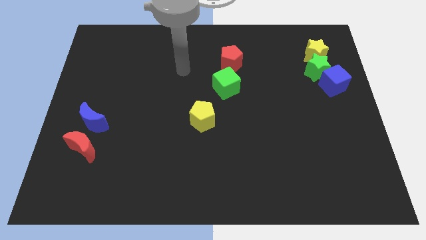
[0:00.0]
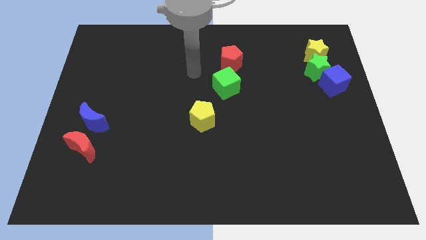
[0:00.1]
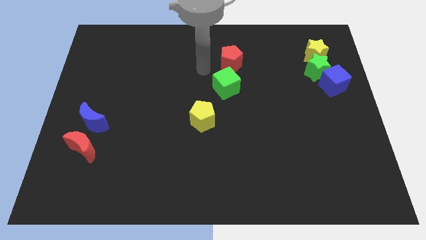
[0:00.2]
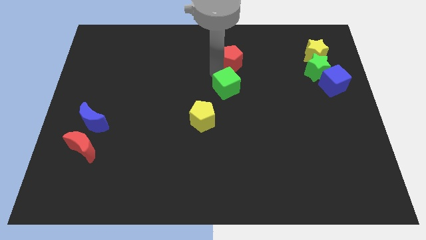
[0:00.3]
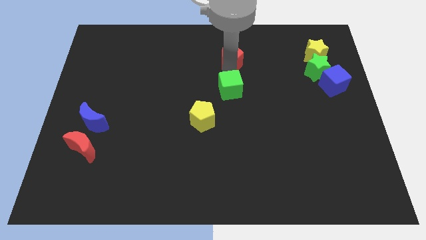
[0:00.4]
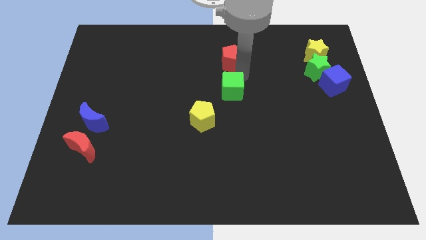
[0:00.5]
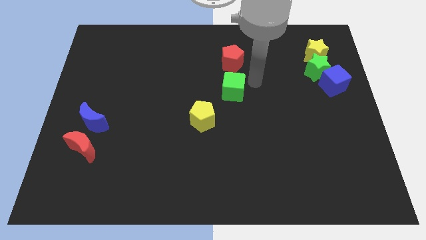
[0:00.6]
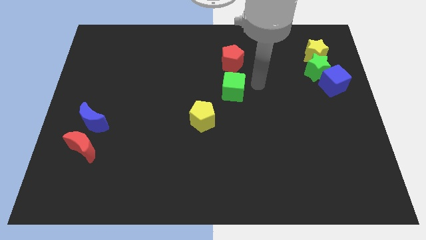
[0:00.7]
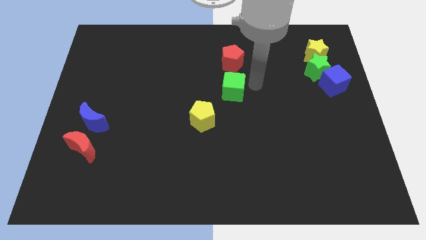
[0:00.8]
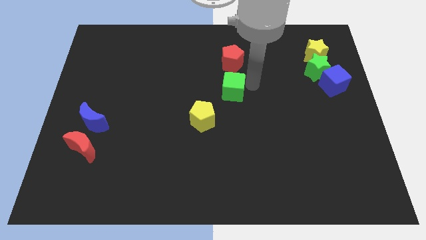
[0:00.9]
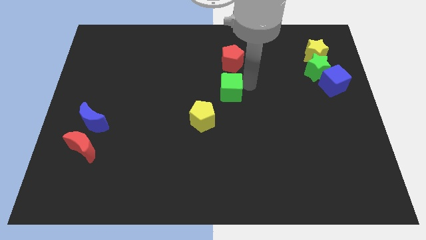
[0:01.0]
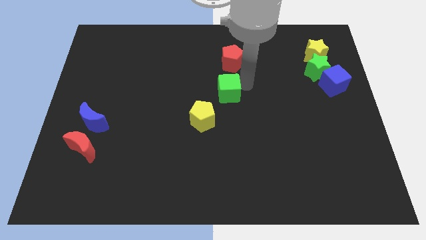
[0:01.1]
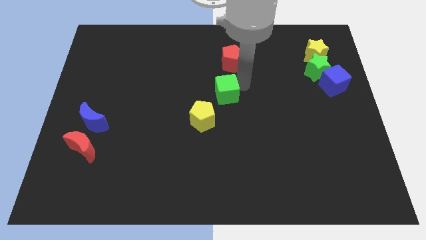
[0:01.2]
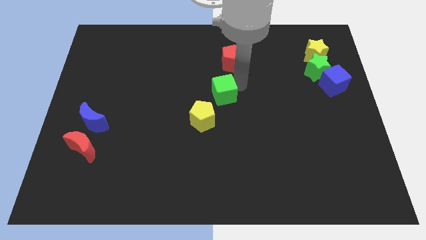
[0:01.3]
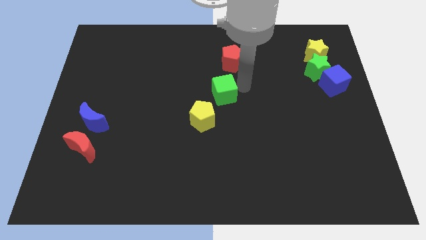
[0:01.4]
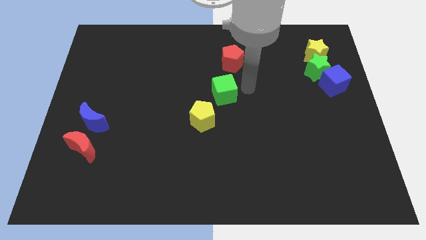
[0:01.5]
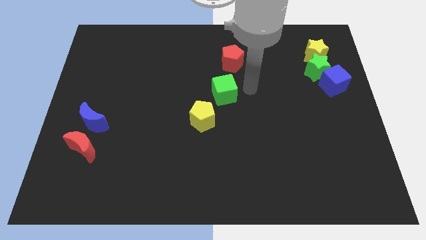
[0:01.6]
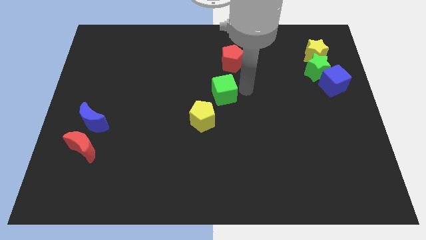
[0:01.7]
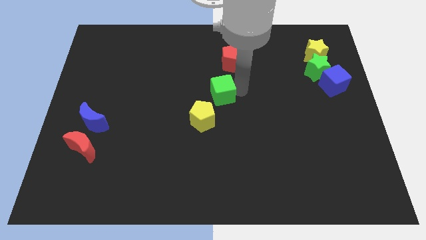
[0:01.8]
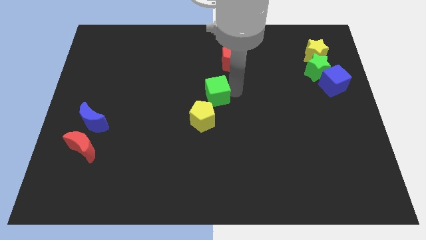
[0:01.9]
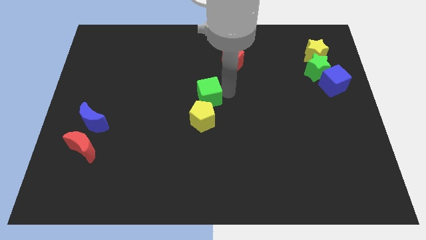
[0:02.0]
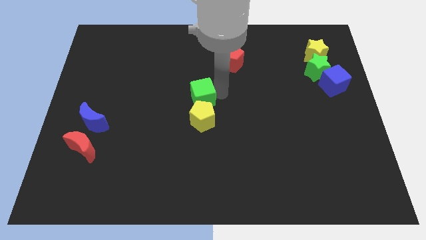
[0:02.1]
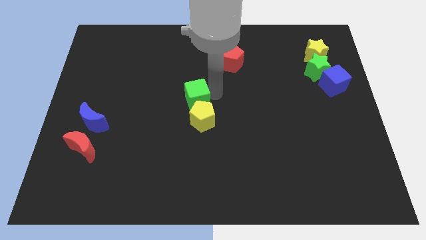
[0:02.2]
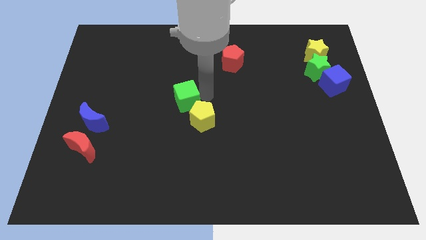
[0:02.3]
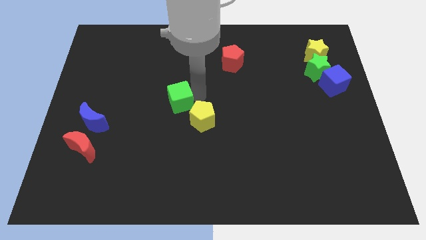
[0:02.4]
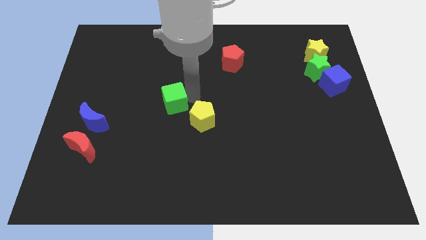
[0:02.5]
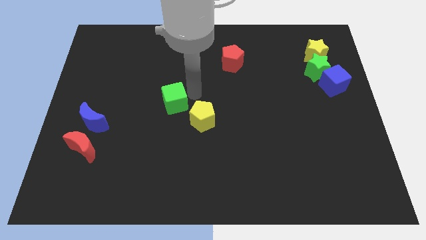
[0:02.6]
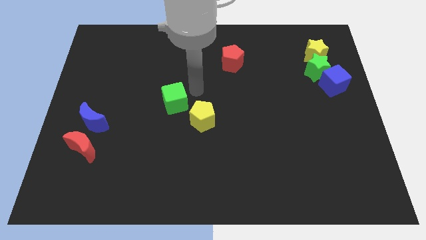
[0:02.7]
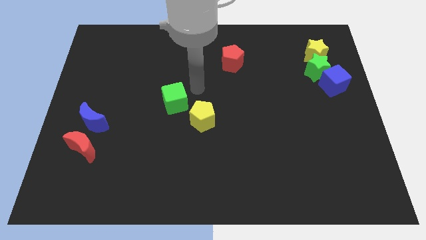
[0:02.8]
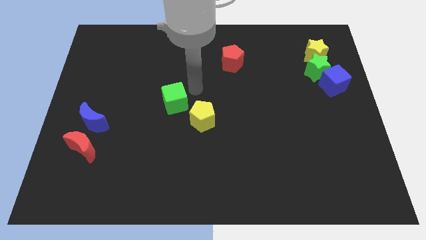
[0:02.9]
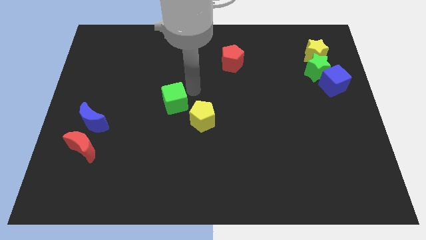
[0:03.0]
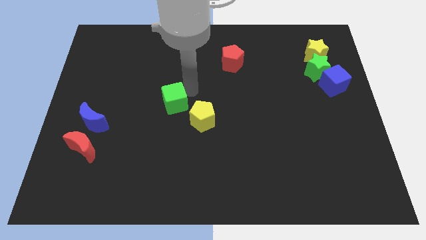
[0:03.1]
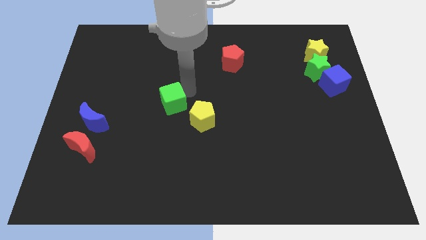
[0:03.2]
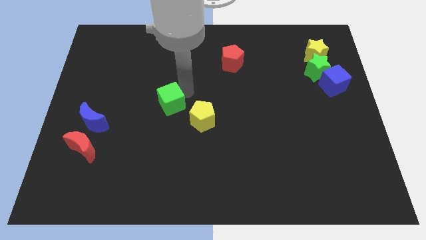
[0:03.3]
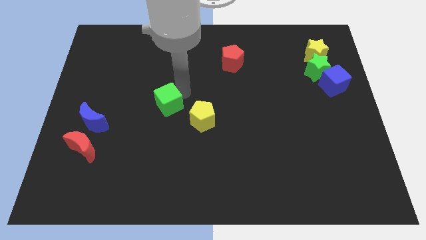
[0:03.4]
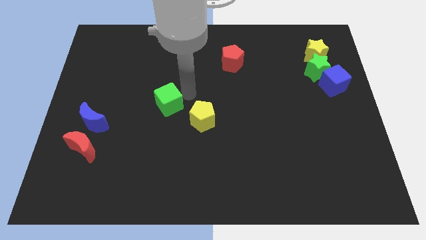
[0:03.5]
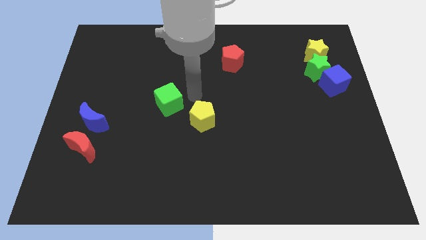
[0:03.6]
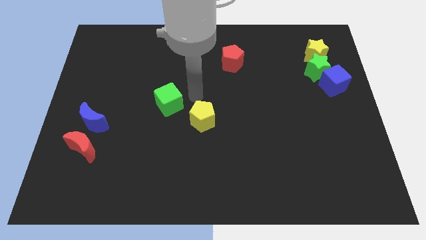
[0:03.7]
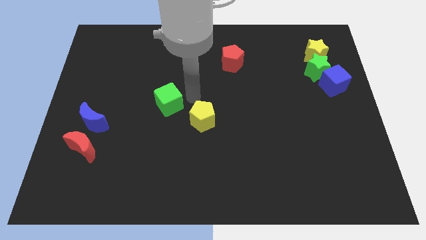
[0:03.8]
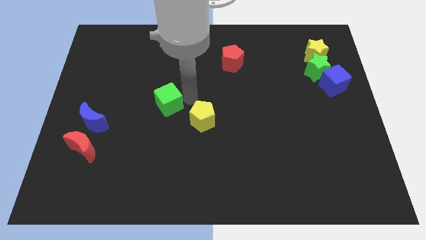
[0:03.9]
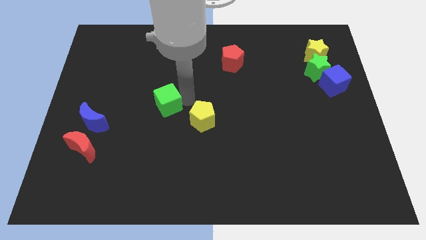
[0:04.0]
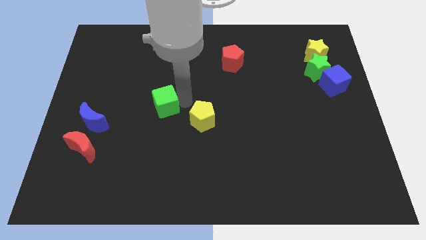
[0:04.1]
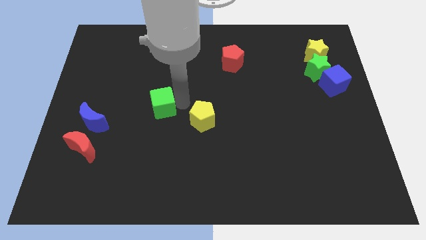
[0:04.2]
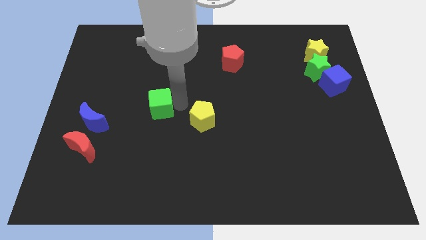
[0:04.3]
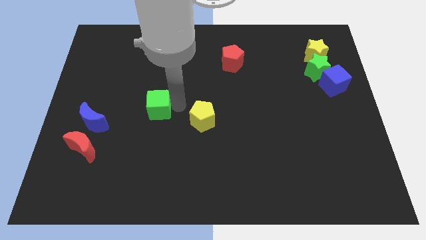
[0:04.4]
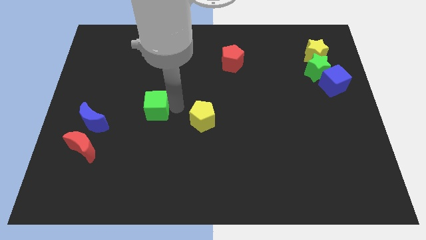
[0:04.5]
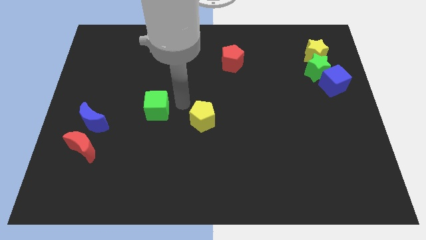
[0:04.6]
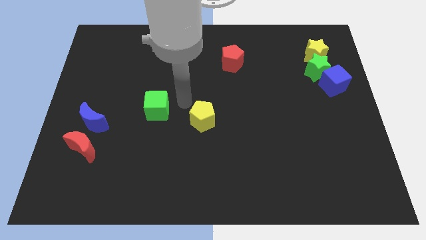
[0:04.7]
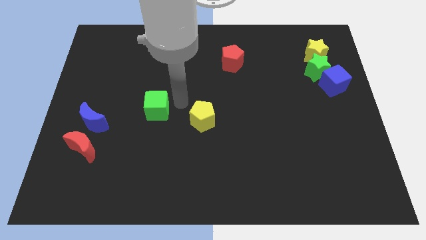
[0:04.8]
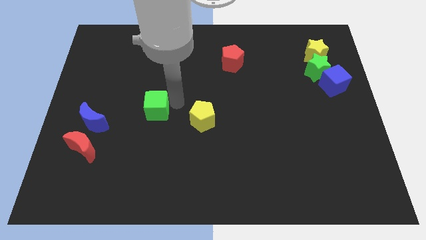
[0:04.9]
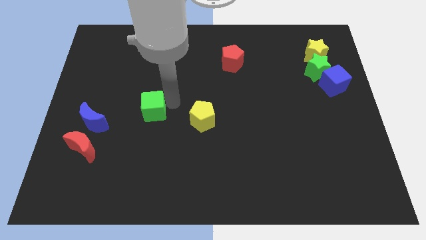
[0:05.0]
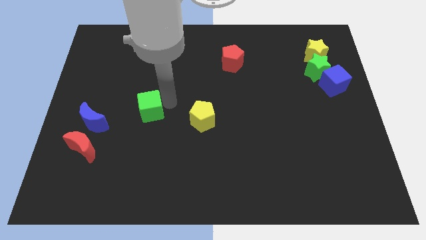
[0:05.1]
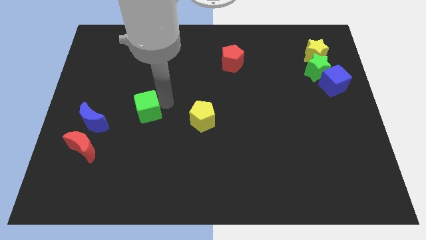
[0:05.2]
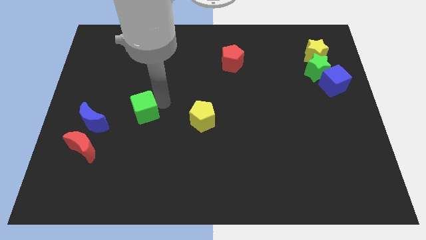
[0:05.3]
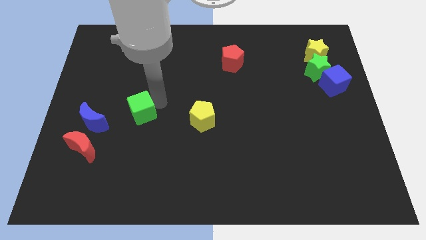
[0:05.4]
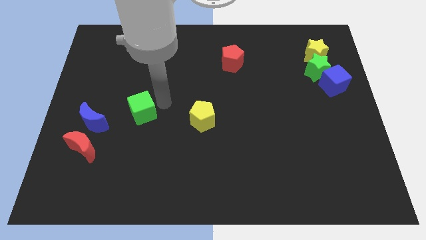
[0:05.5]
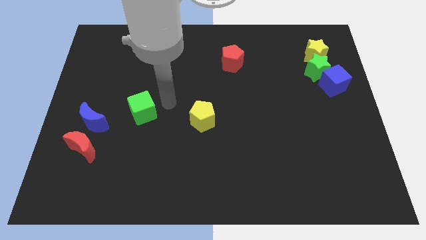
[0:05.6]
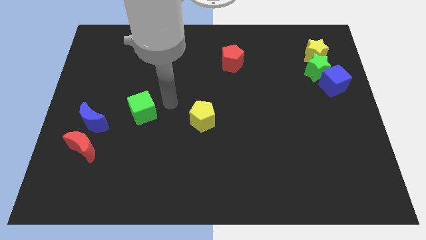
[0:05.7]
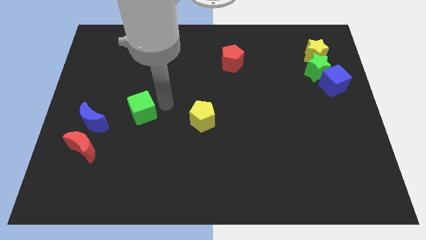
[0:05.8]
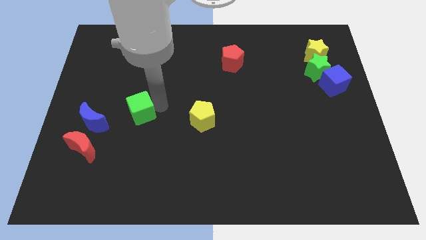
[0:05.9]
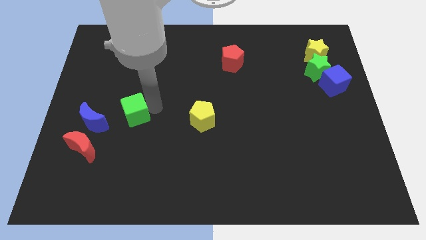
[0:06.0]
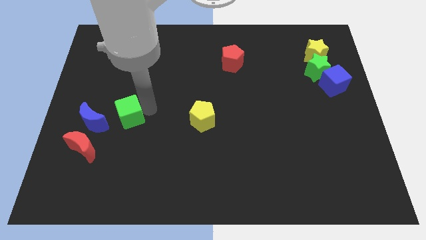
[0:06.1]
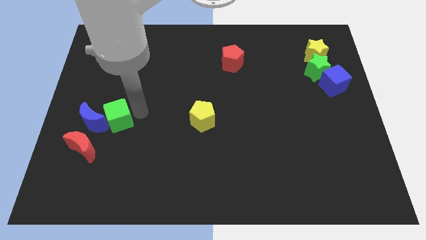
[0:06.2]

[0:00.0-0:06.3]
push the green cube next to the blue moon

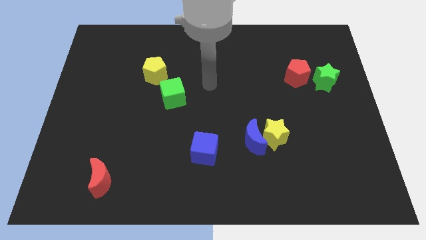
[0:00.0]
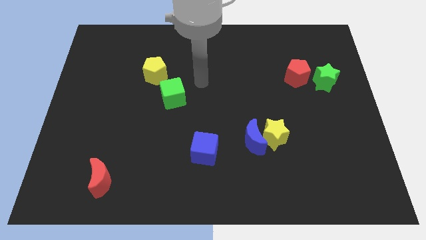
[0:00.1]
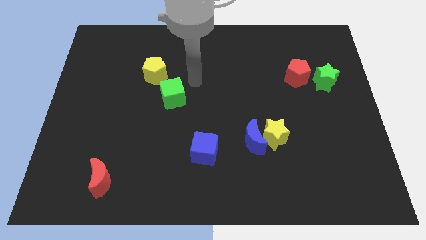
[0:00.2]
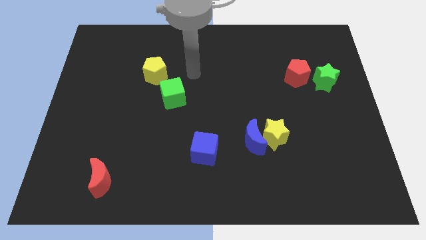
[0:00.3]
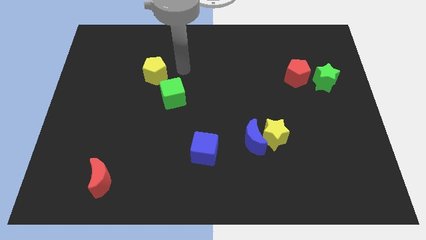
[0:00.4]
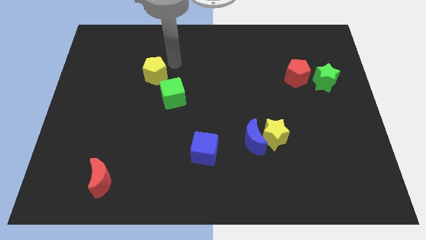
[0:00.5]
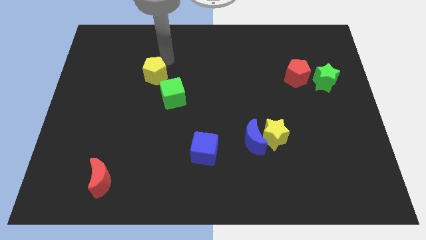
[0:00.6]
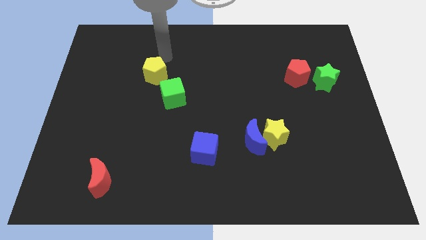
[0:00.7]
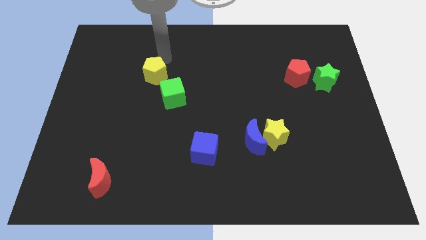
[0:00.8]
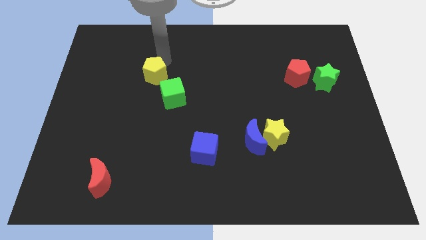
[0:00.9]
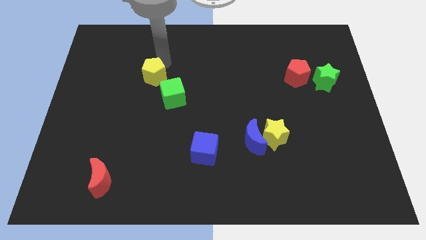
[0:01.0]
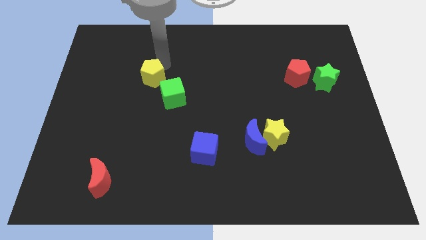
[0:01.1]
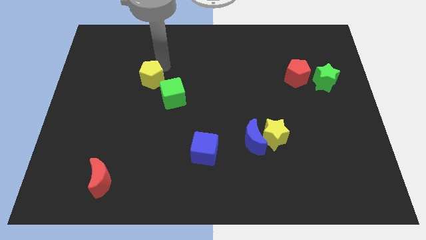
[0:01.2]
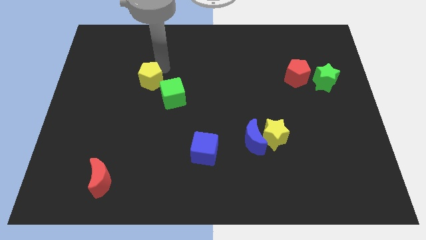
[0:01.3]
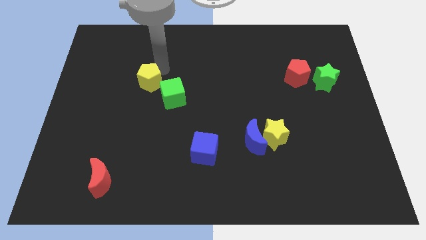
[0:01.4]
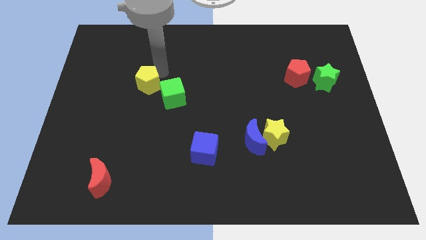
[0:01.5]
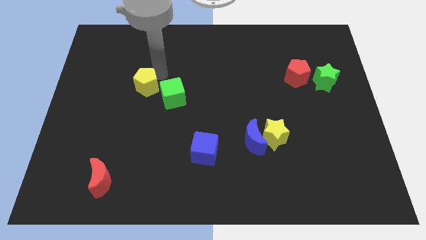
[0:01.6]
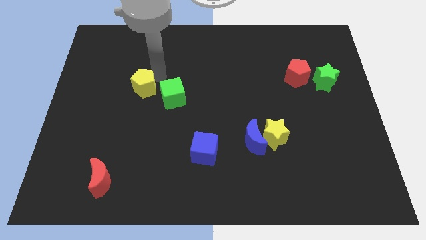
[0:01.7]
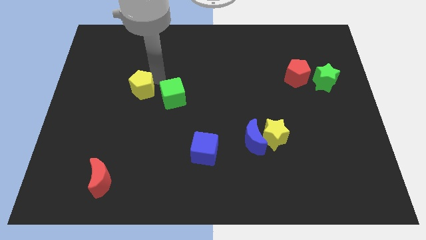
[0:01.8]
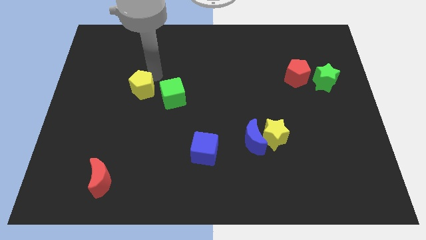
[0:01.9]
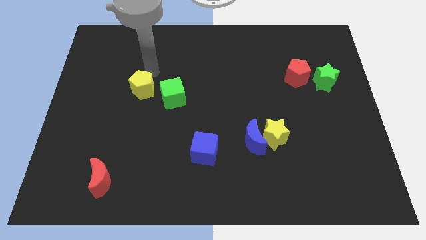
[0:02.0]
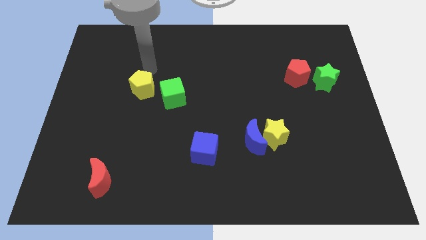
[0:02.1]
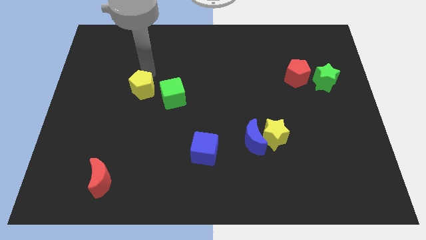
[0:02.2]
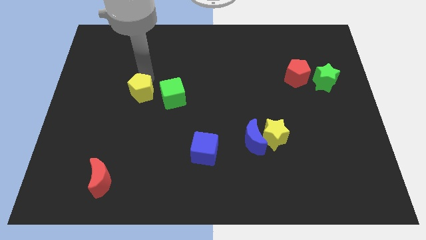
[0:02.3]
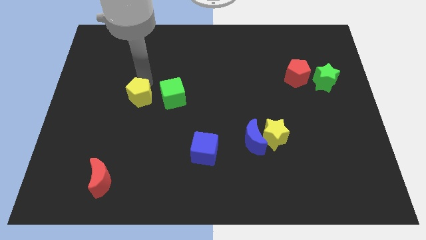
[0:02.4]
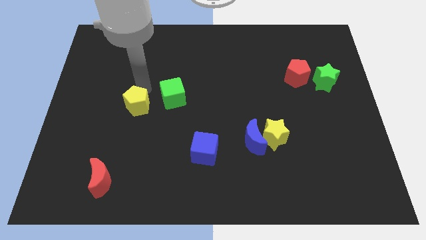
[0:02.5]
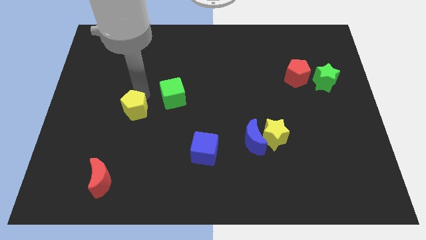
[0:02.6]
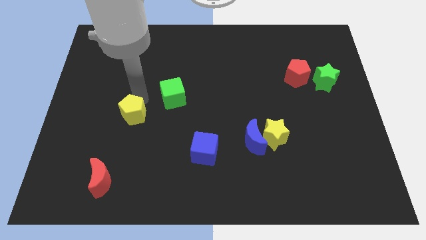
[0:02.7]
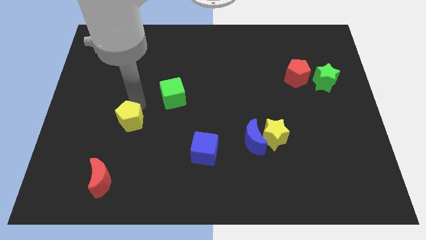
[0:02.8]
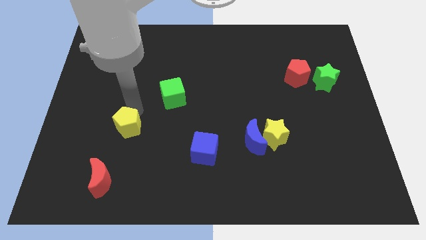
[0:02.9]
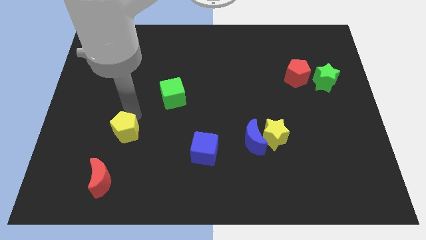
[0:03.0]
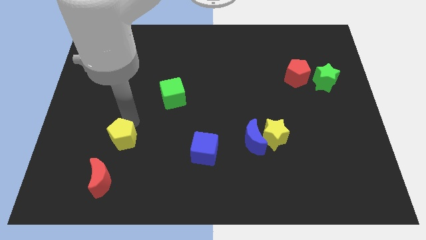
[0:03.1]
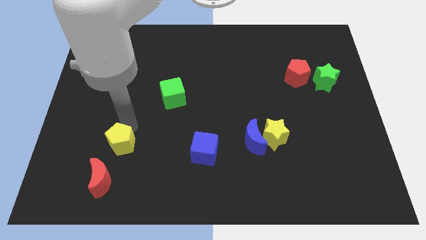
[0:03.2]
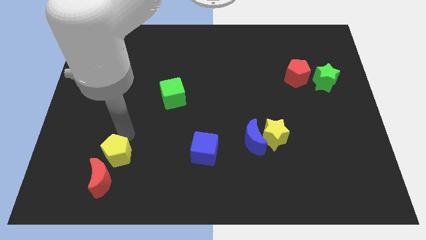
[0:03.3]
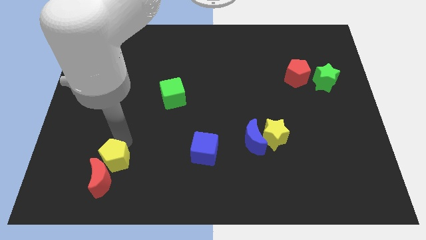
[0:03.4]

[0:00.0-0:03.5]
move the yellow pentagon towards the red moon
